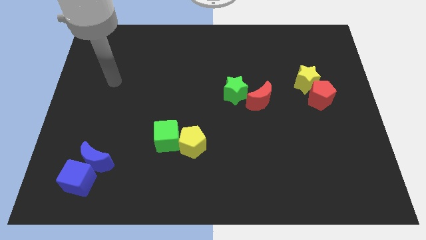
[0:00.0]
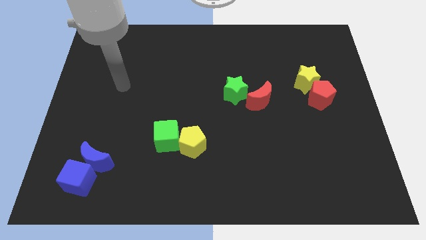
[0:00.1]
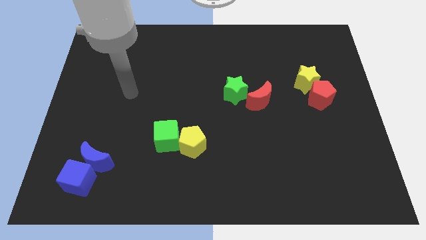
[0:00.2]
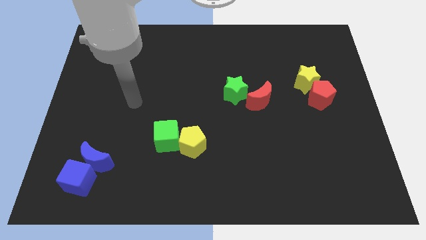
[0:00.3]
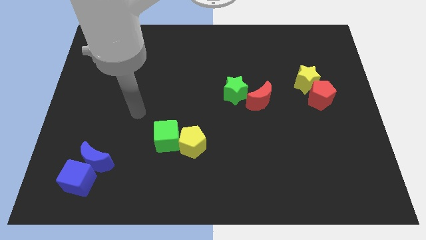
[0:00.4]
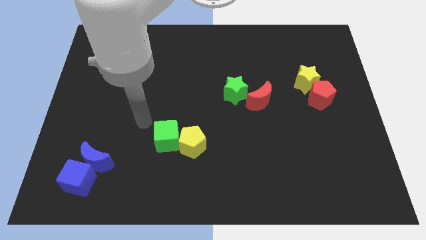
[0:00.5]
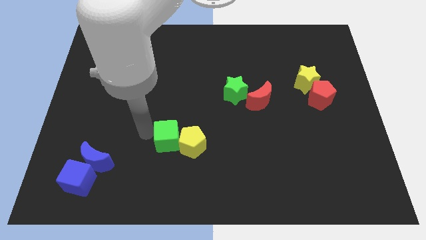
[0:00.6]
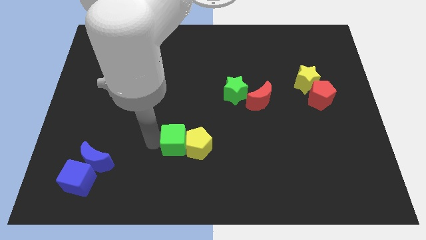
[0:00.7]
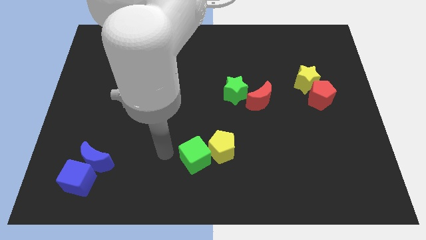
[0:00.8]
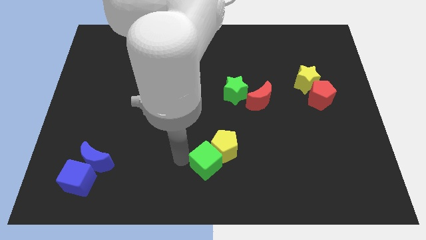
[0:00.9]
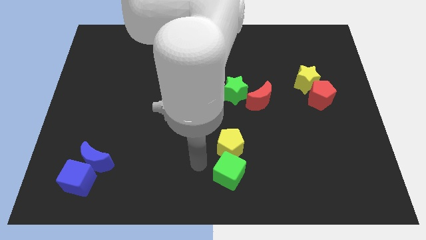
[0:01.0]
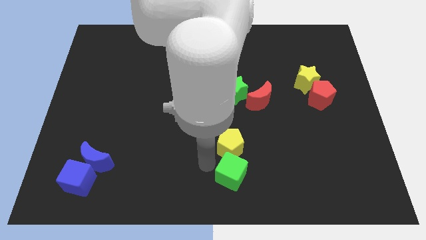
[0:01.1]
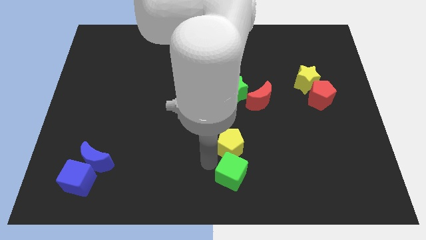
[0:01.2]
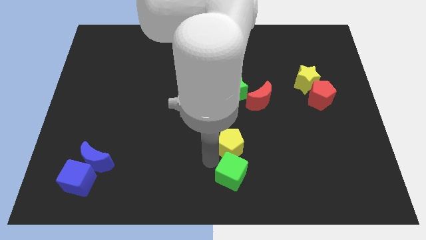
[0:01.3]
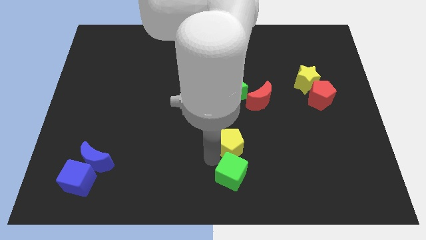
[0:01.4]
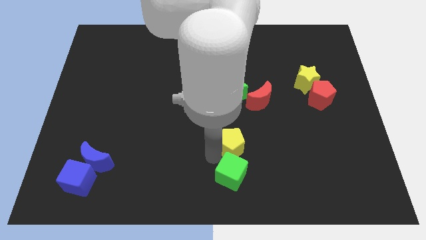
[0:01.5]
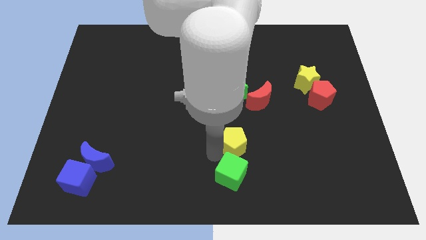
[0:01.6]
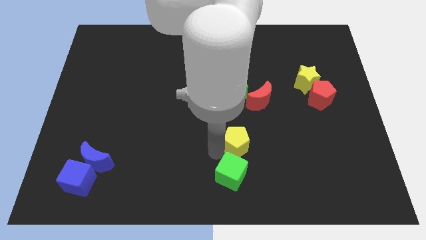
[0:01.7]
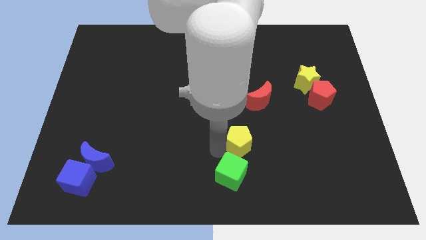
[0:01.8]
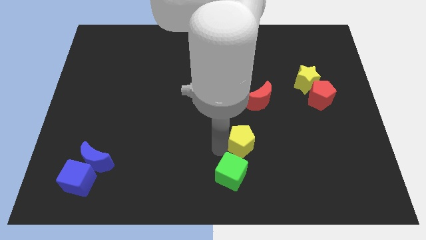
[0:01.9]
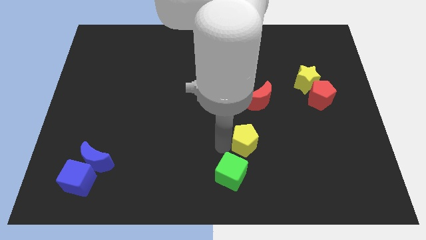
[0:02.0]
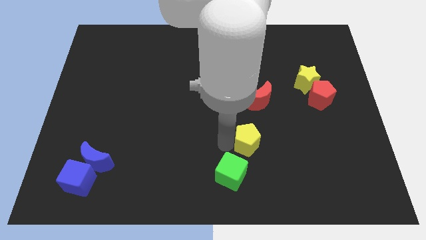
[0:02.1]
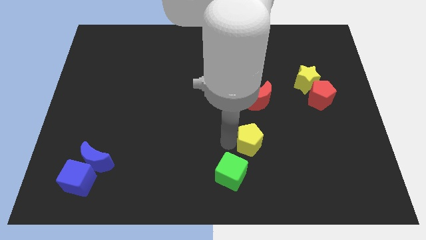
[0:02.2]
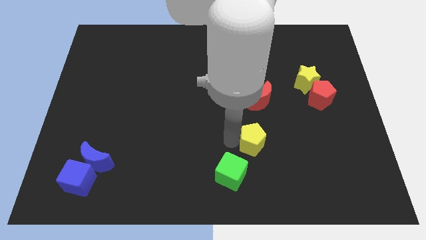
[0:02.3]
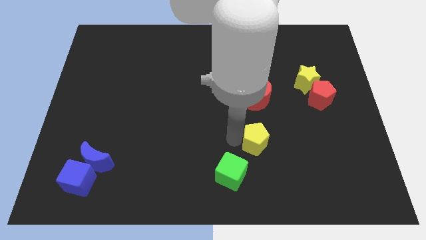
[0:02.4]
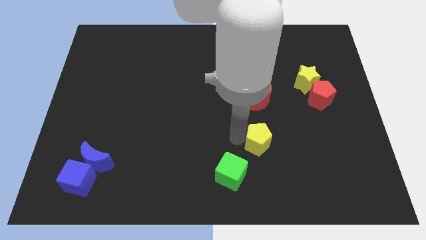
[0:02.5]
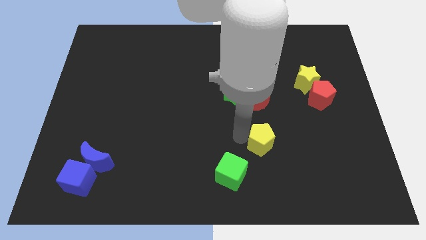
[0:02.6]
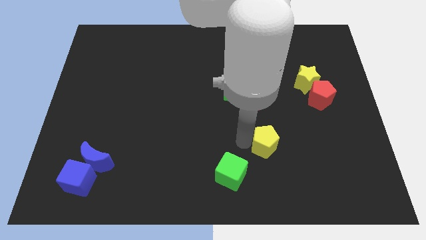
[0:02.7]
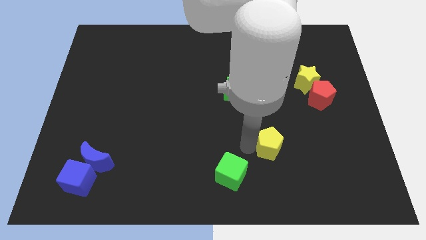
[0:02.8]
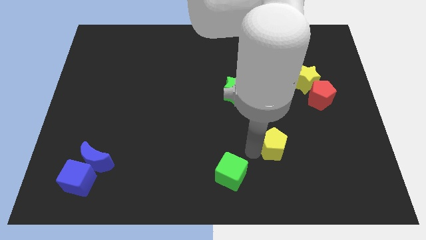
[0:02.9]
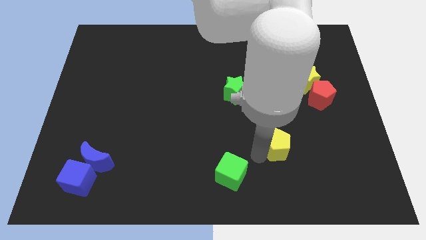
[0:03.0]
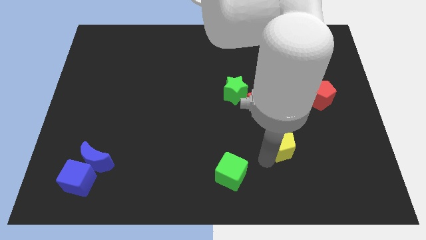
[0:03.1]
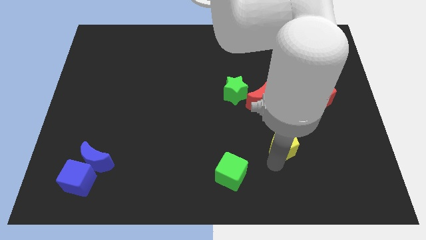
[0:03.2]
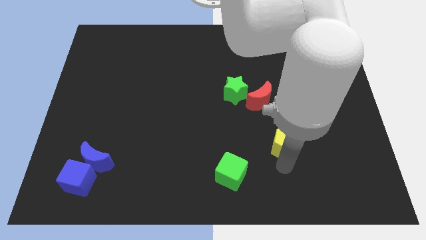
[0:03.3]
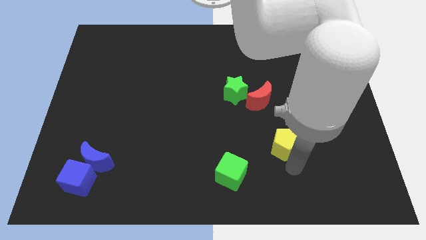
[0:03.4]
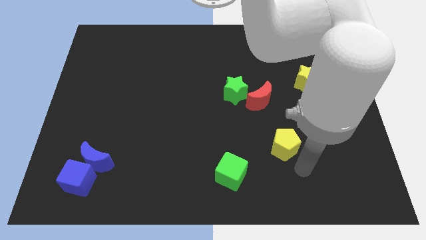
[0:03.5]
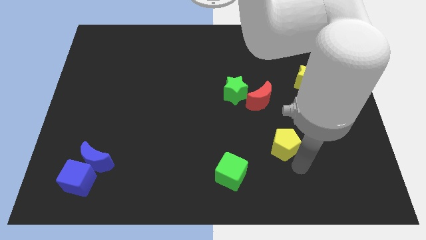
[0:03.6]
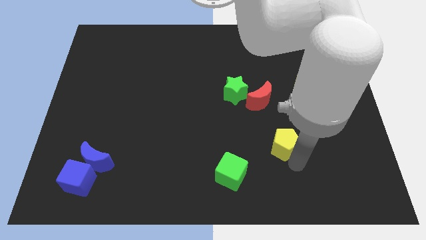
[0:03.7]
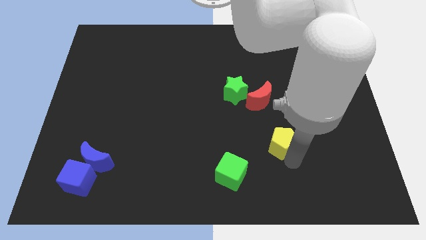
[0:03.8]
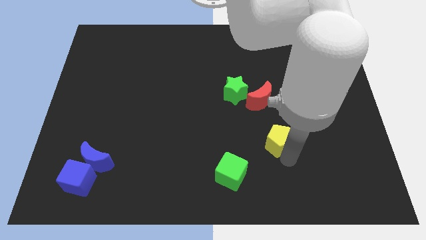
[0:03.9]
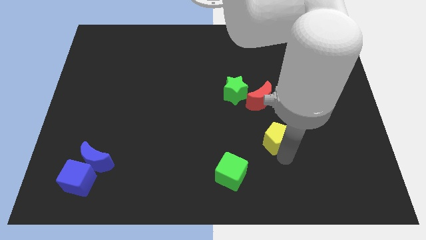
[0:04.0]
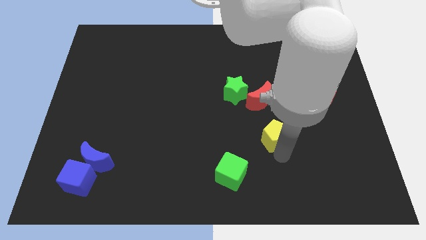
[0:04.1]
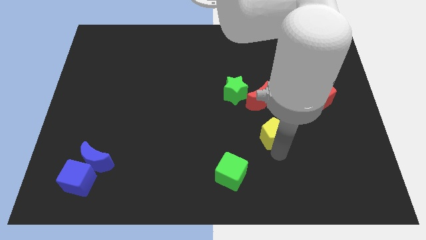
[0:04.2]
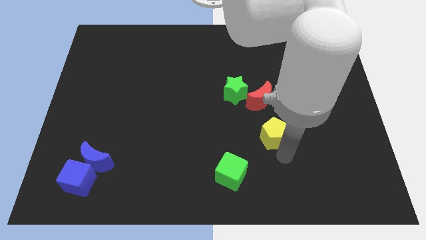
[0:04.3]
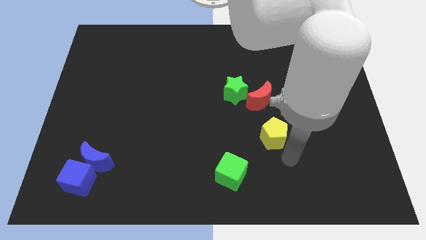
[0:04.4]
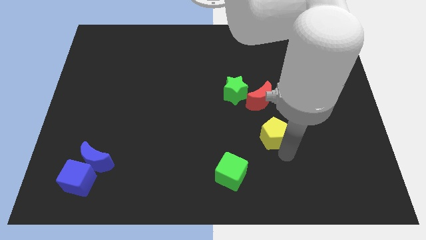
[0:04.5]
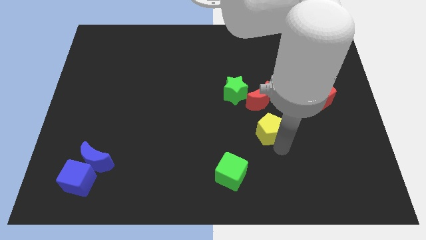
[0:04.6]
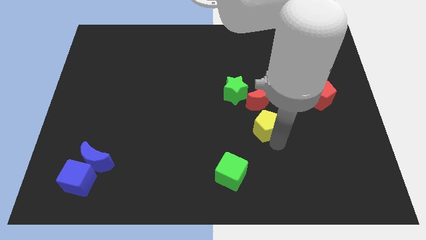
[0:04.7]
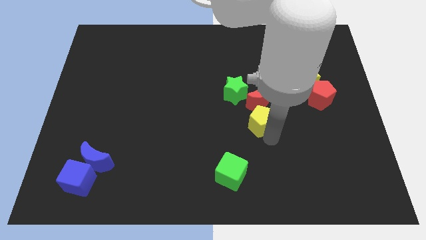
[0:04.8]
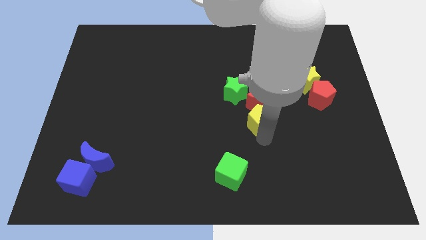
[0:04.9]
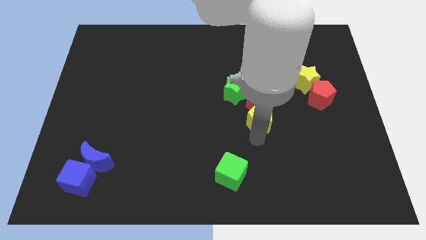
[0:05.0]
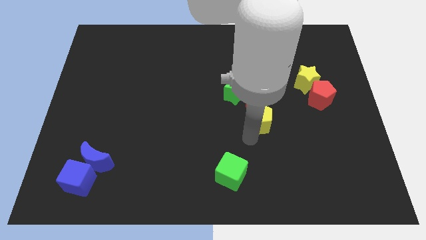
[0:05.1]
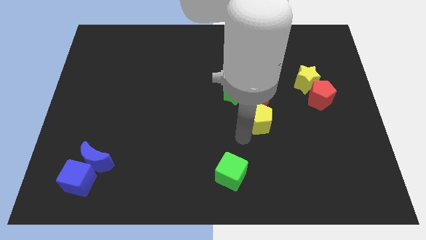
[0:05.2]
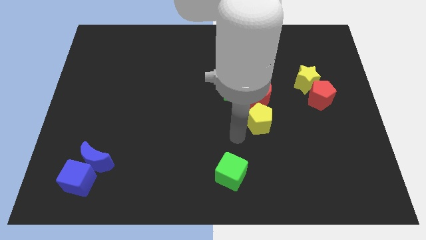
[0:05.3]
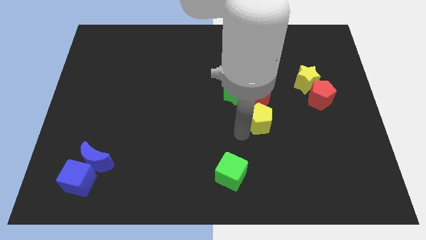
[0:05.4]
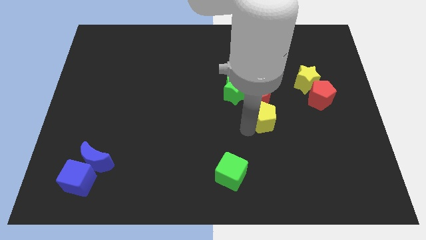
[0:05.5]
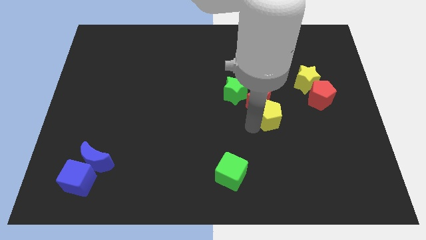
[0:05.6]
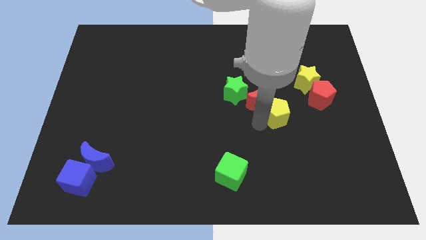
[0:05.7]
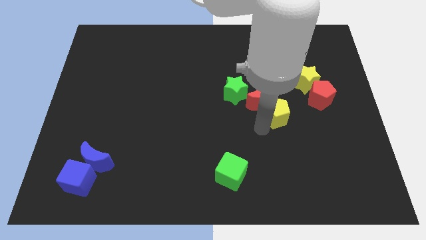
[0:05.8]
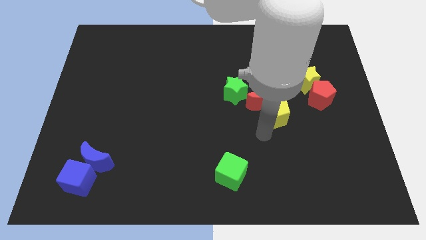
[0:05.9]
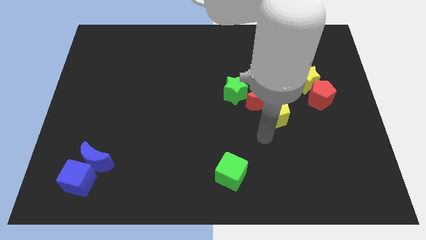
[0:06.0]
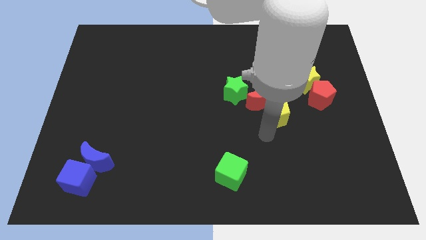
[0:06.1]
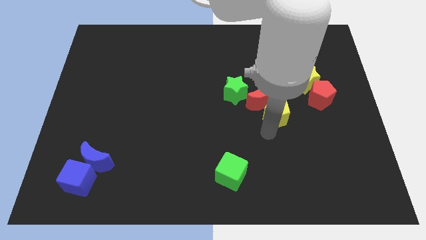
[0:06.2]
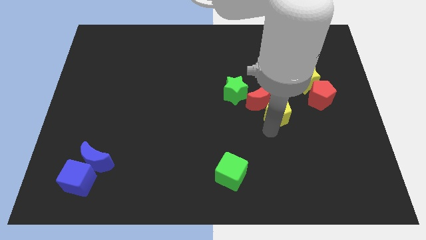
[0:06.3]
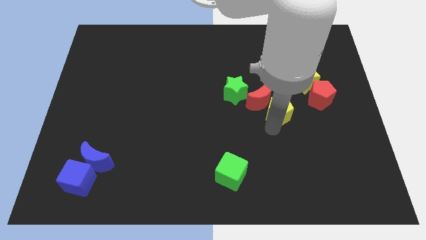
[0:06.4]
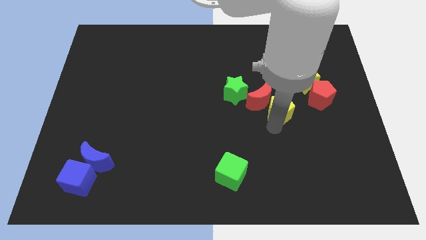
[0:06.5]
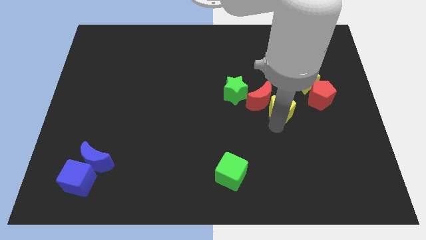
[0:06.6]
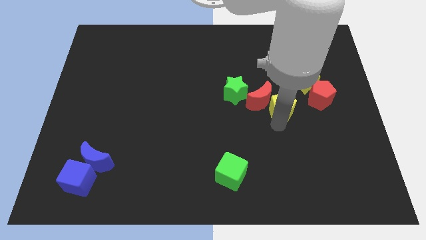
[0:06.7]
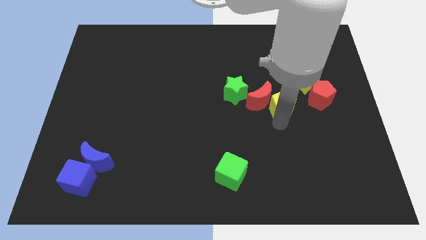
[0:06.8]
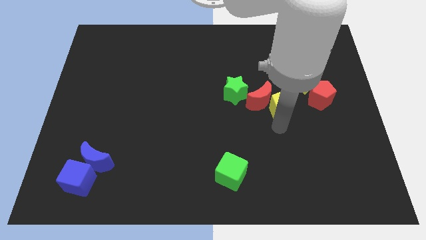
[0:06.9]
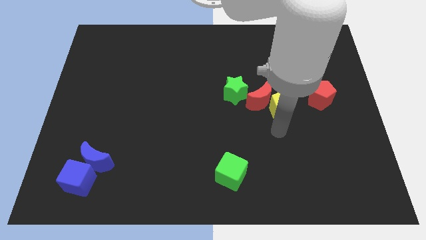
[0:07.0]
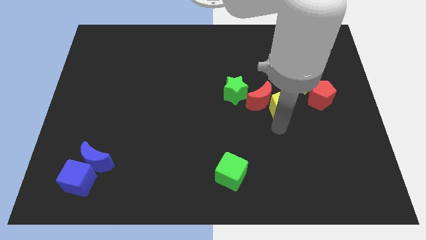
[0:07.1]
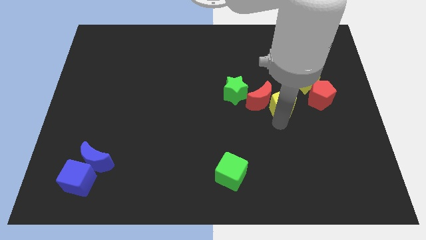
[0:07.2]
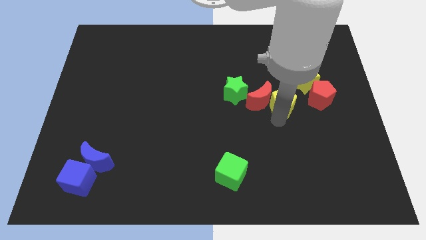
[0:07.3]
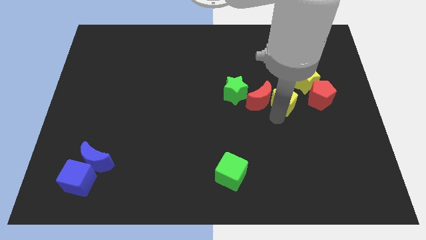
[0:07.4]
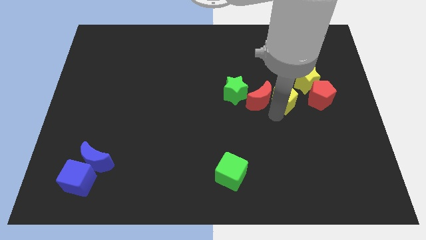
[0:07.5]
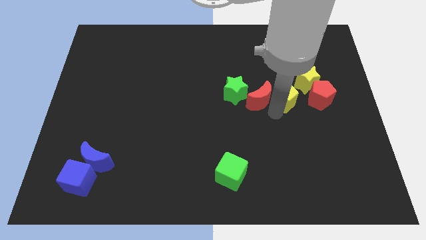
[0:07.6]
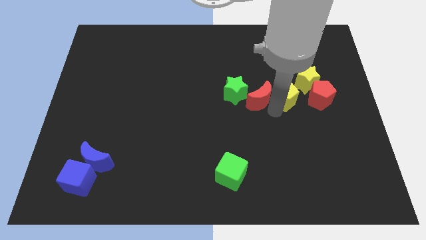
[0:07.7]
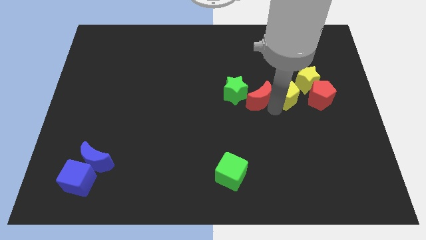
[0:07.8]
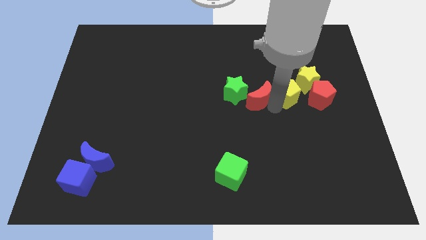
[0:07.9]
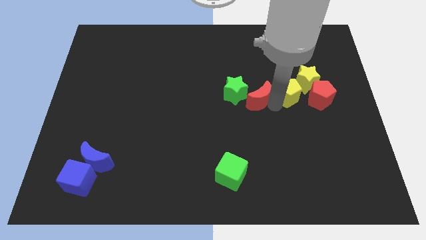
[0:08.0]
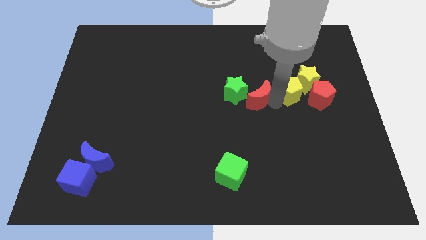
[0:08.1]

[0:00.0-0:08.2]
push the yellow pentagon close to the yellow star
